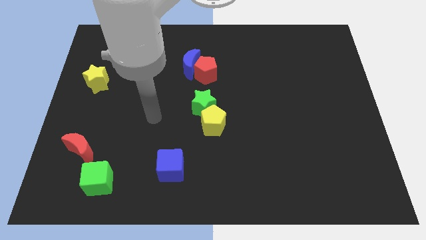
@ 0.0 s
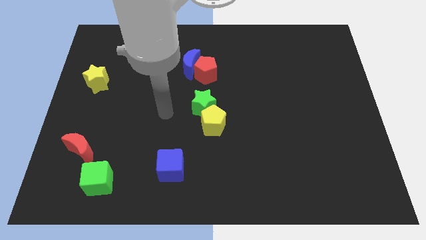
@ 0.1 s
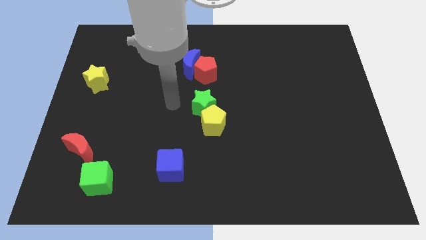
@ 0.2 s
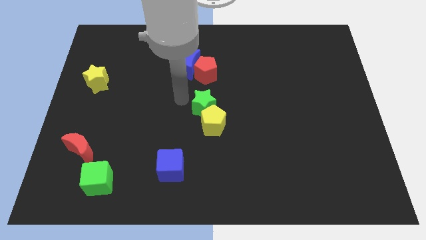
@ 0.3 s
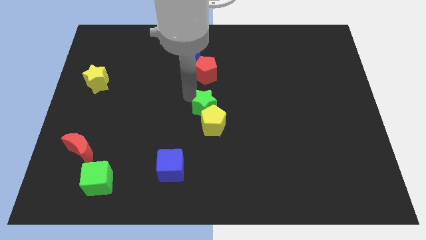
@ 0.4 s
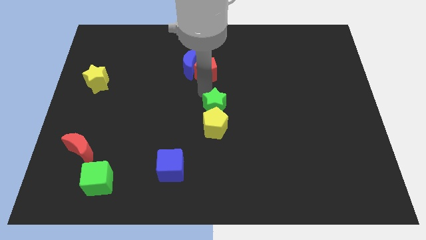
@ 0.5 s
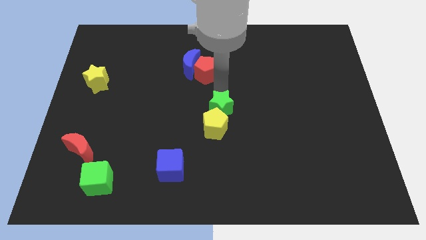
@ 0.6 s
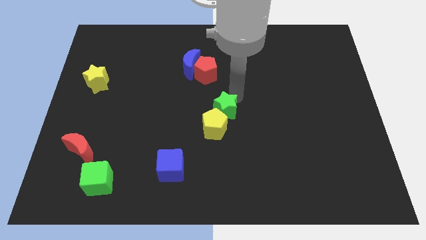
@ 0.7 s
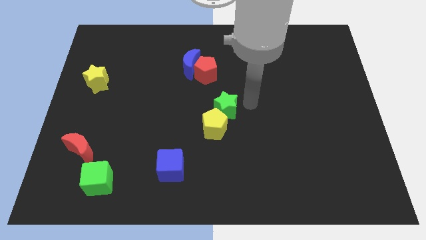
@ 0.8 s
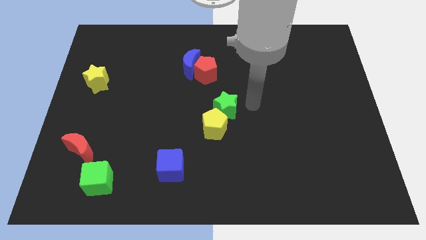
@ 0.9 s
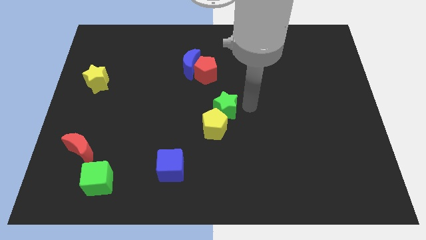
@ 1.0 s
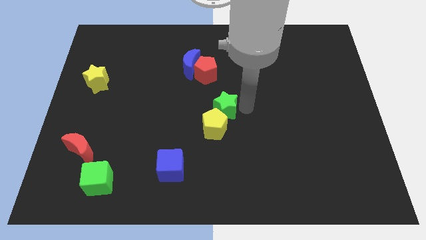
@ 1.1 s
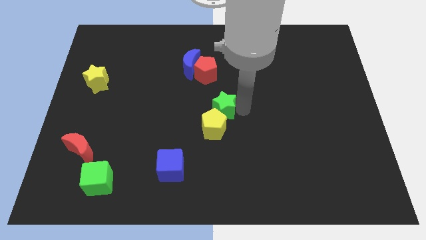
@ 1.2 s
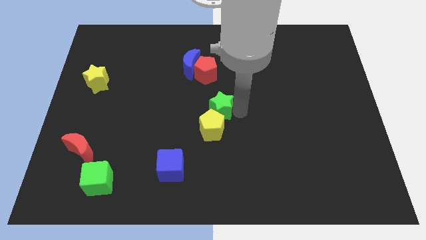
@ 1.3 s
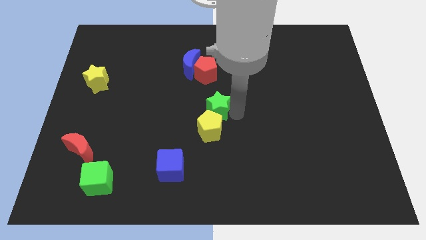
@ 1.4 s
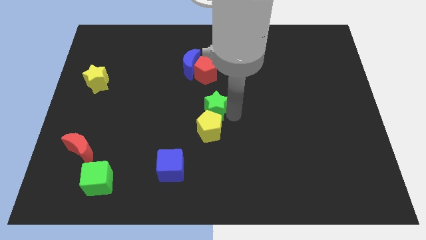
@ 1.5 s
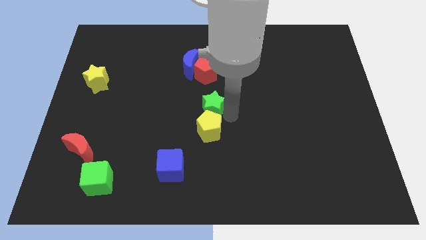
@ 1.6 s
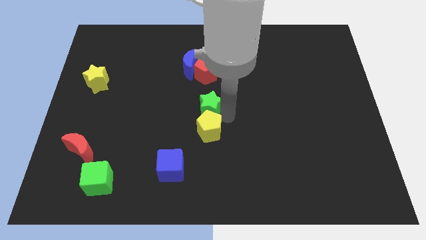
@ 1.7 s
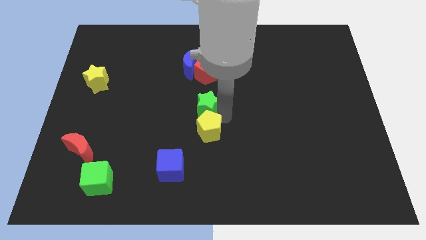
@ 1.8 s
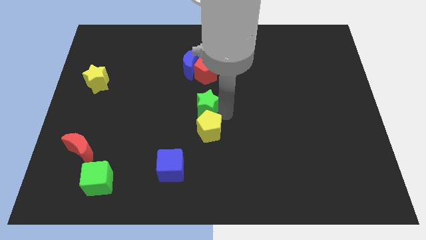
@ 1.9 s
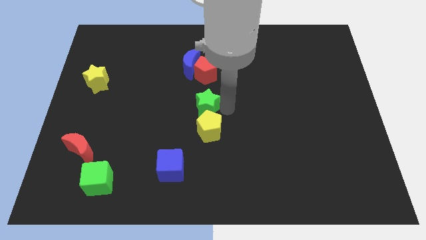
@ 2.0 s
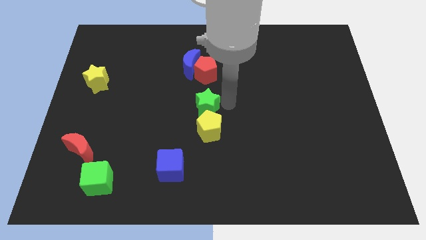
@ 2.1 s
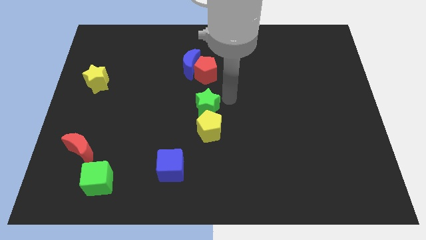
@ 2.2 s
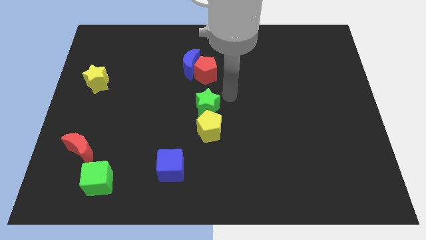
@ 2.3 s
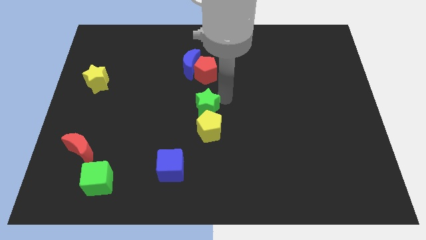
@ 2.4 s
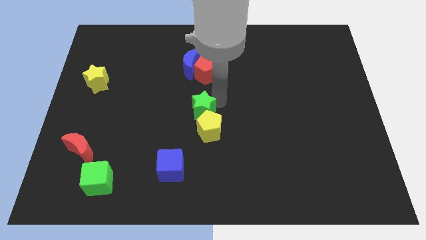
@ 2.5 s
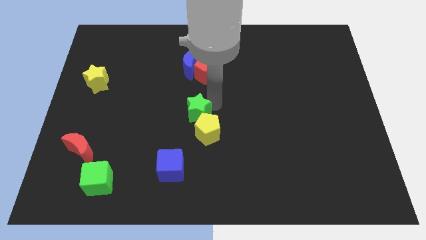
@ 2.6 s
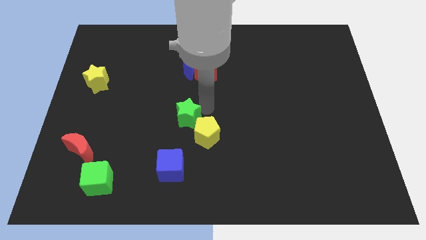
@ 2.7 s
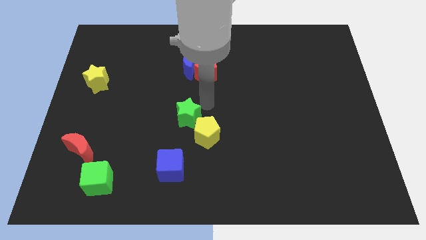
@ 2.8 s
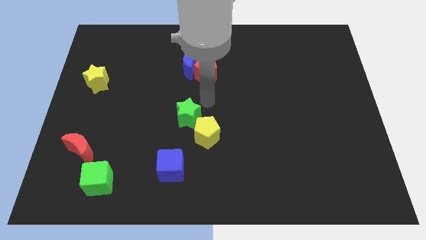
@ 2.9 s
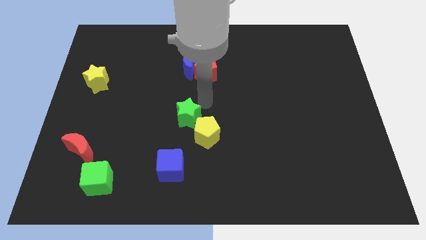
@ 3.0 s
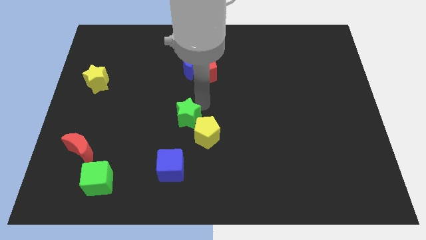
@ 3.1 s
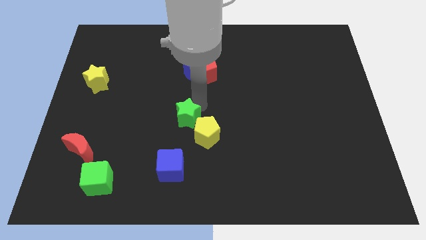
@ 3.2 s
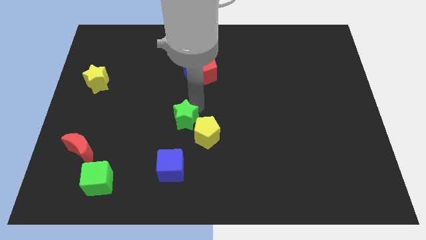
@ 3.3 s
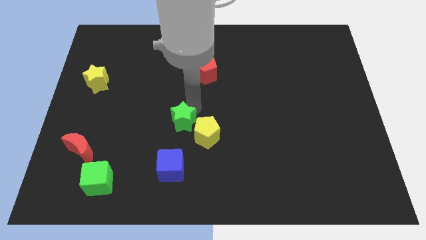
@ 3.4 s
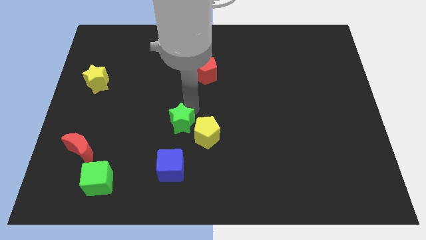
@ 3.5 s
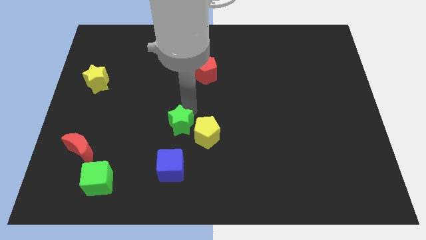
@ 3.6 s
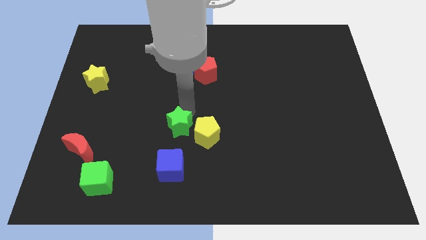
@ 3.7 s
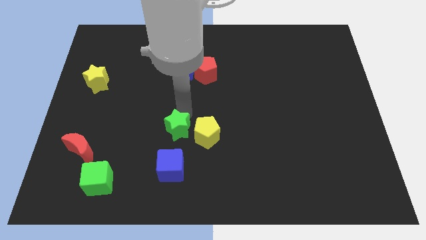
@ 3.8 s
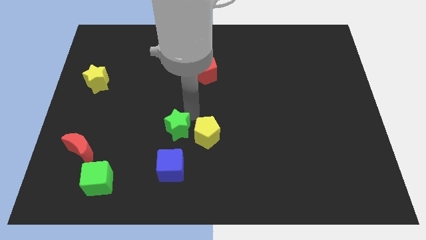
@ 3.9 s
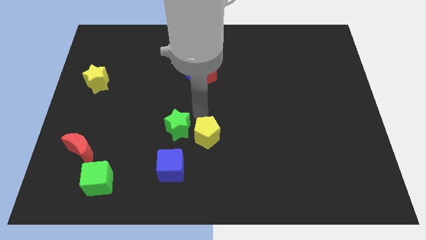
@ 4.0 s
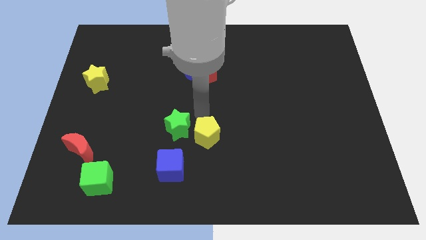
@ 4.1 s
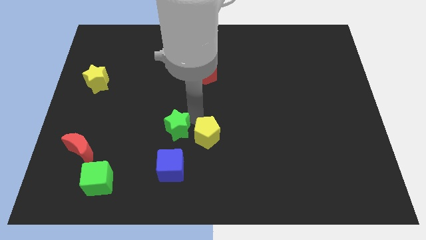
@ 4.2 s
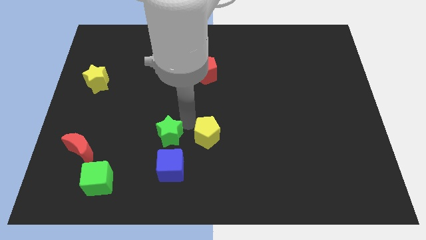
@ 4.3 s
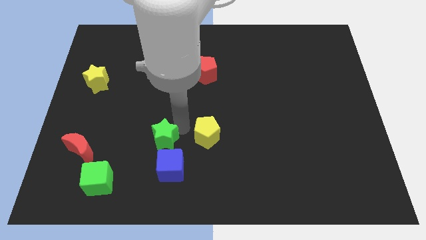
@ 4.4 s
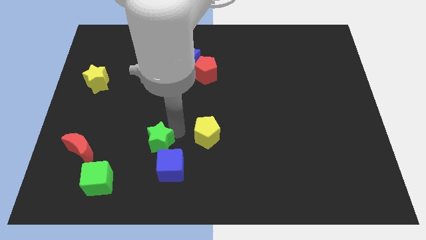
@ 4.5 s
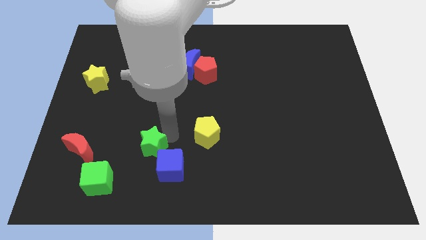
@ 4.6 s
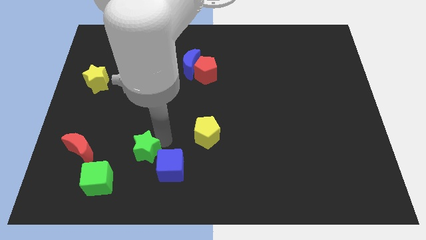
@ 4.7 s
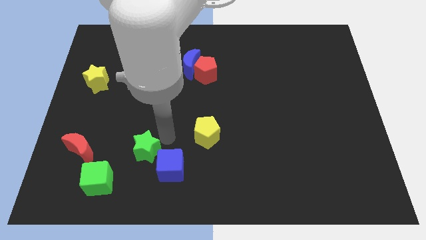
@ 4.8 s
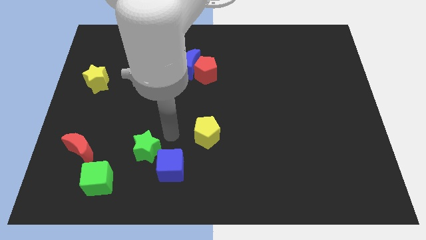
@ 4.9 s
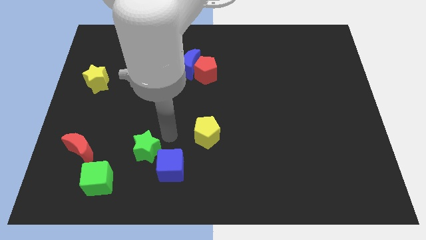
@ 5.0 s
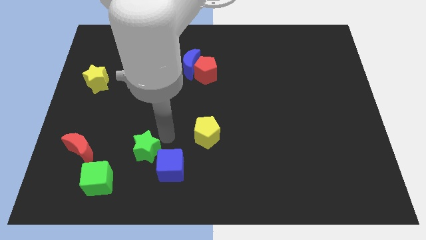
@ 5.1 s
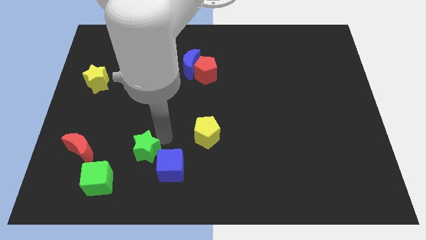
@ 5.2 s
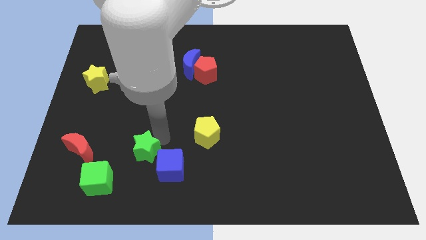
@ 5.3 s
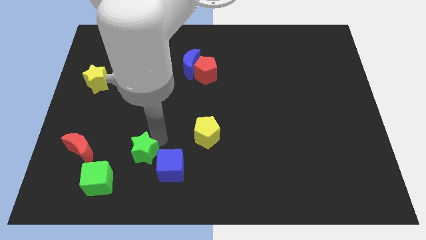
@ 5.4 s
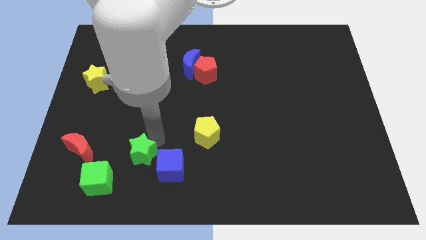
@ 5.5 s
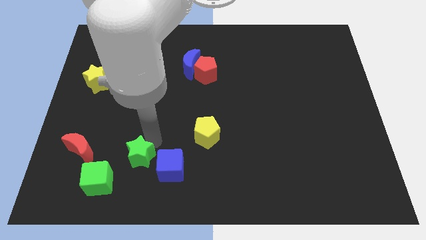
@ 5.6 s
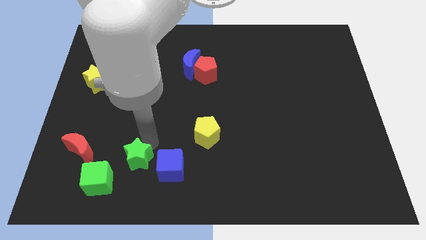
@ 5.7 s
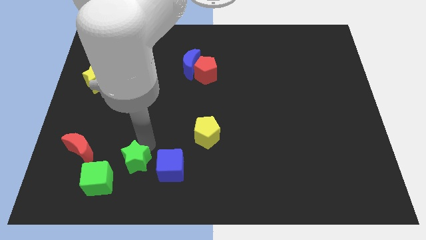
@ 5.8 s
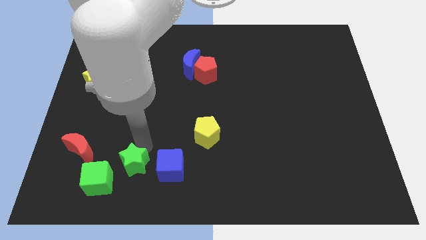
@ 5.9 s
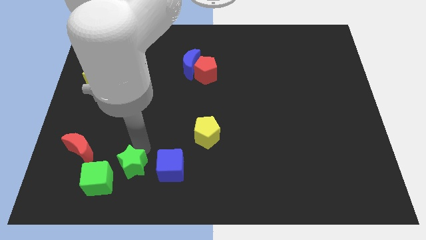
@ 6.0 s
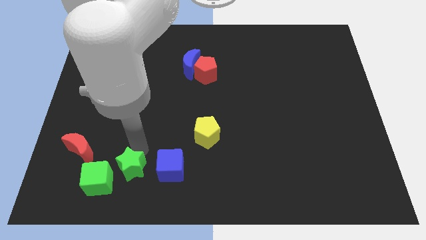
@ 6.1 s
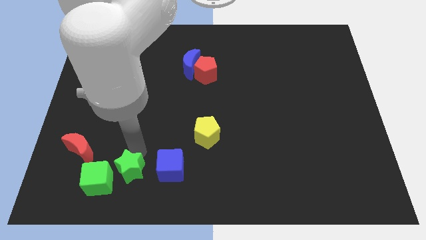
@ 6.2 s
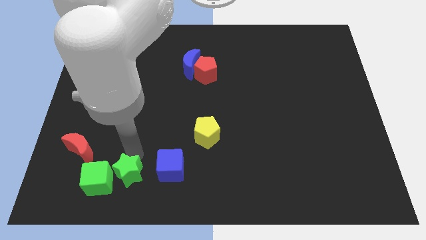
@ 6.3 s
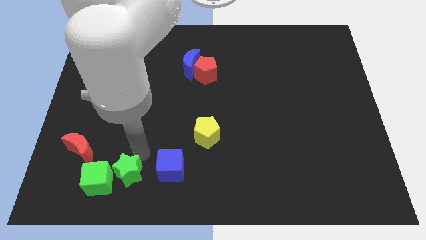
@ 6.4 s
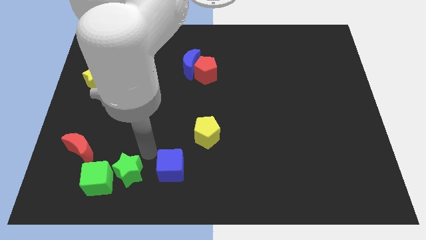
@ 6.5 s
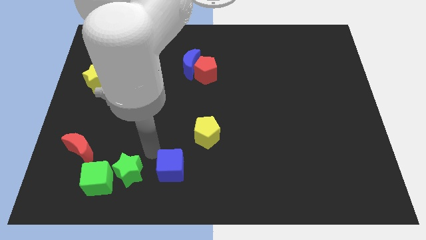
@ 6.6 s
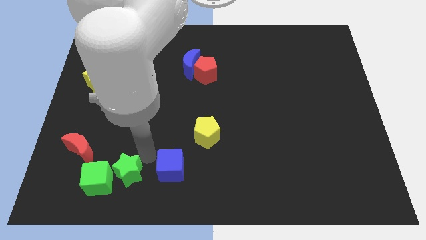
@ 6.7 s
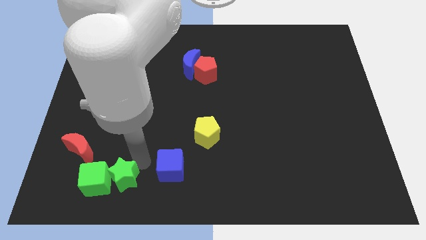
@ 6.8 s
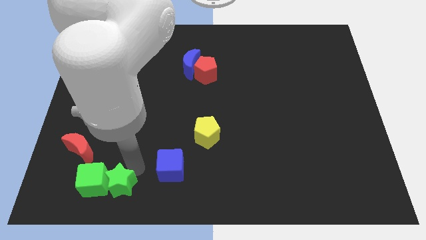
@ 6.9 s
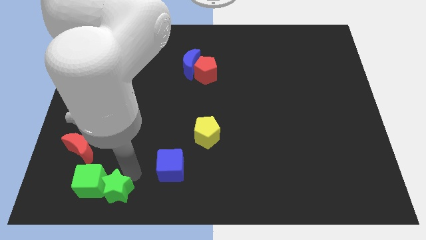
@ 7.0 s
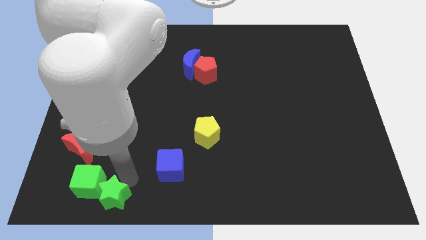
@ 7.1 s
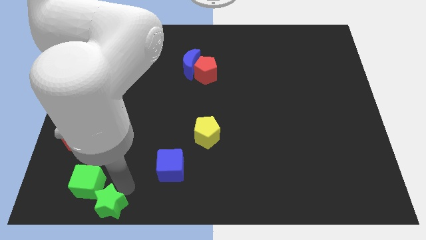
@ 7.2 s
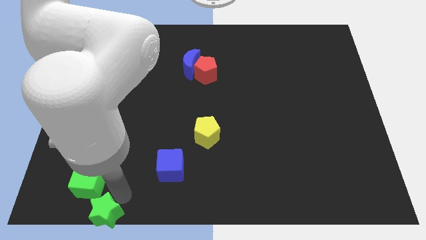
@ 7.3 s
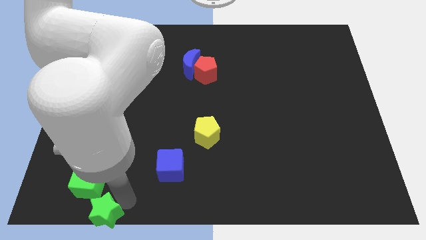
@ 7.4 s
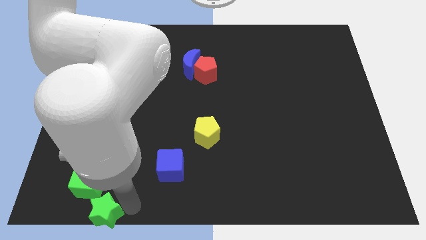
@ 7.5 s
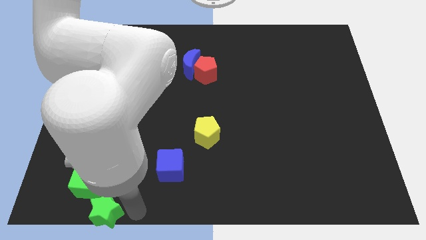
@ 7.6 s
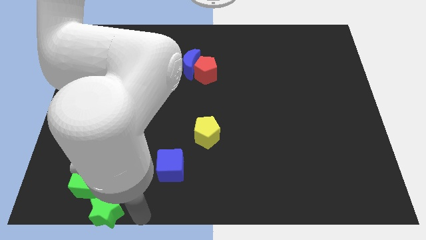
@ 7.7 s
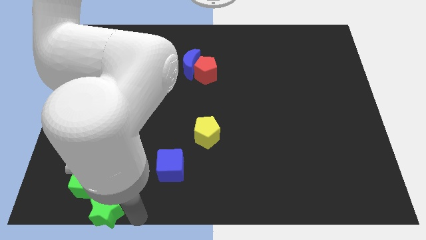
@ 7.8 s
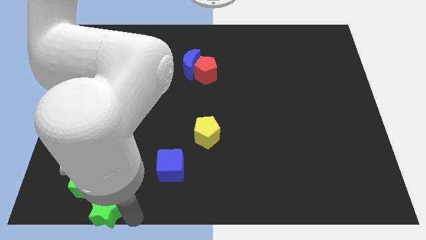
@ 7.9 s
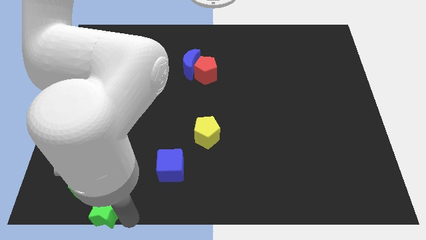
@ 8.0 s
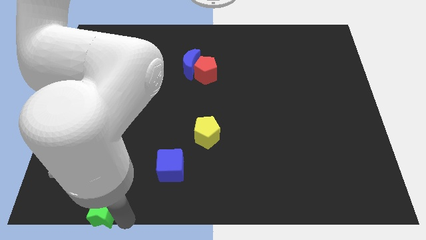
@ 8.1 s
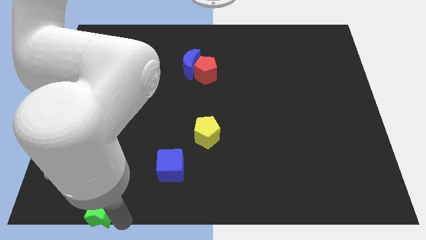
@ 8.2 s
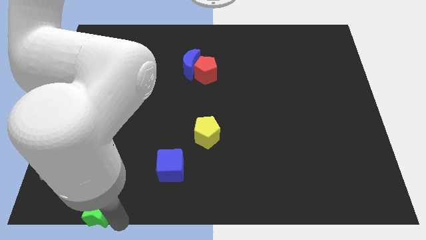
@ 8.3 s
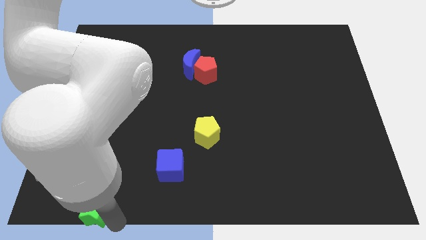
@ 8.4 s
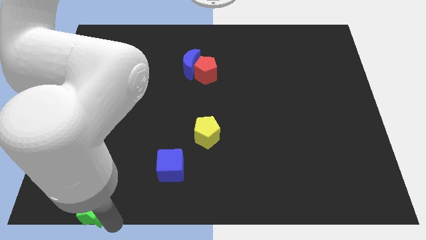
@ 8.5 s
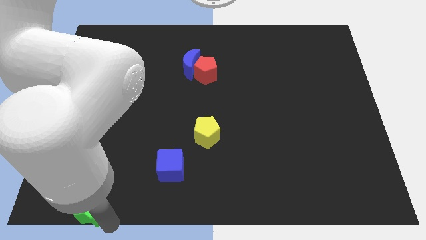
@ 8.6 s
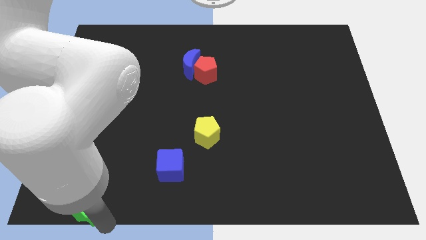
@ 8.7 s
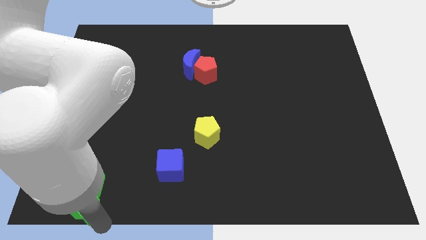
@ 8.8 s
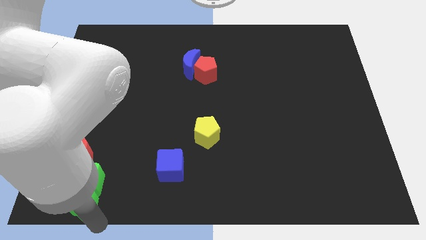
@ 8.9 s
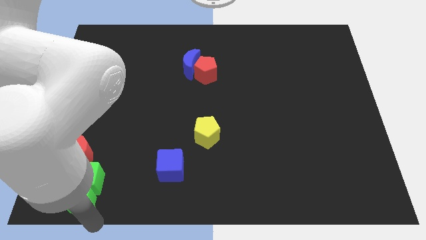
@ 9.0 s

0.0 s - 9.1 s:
move the green star to the bottom left of the board
